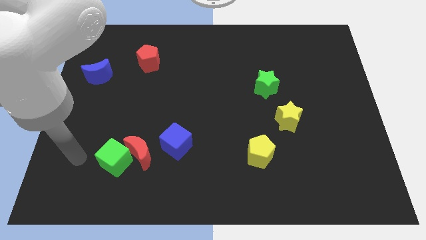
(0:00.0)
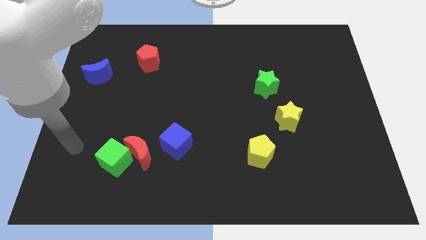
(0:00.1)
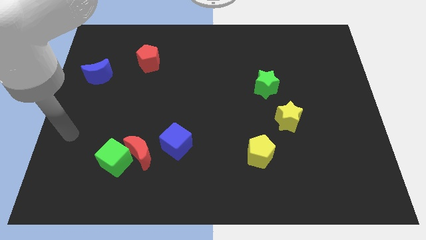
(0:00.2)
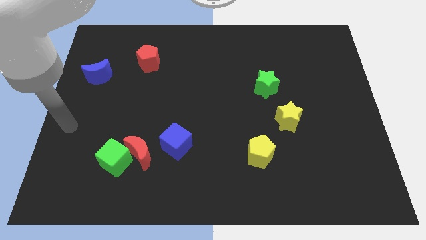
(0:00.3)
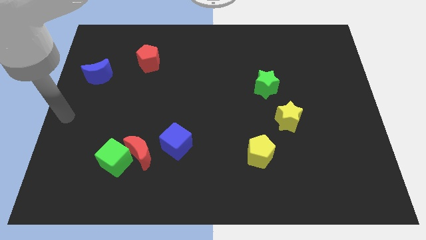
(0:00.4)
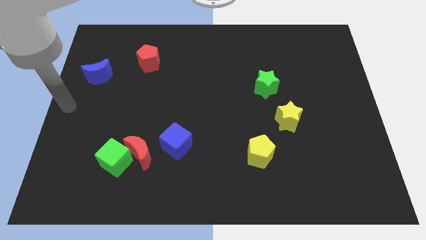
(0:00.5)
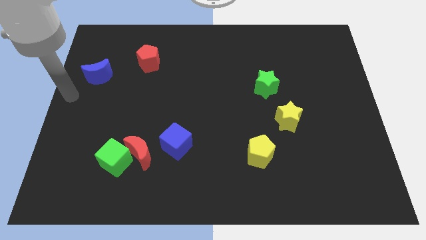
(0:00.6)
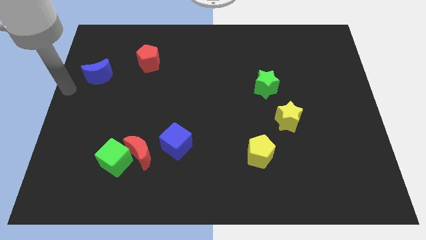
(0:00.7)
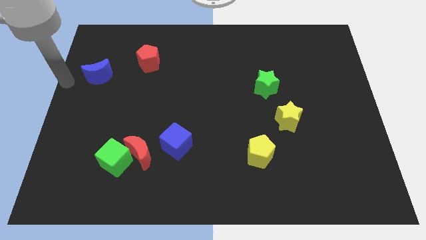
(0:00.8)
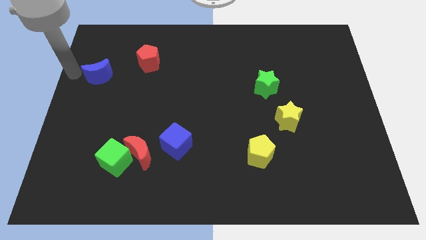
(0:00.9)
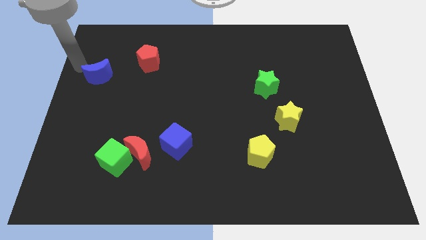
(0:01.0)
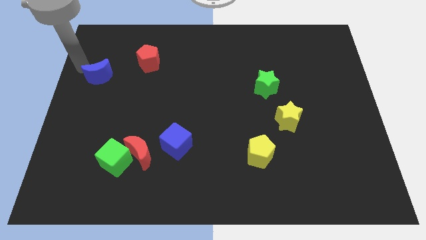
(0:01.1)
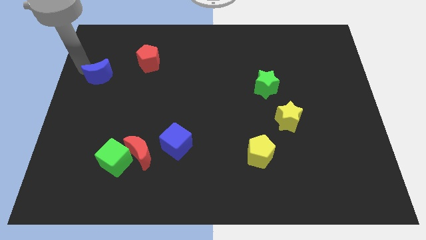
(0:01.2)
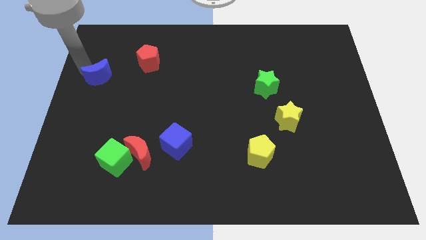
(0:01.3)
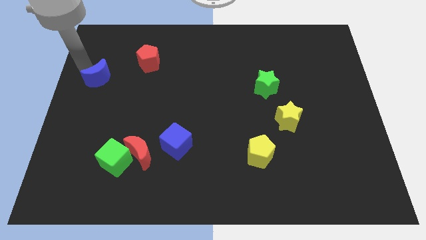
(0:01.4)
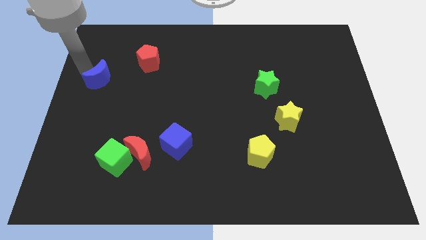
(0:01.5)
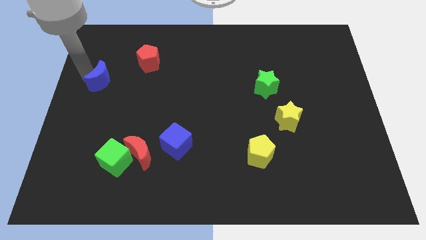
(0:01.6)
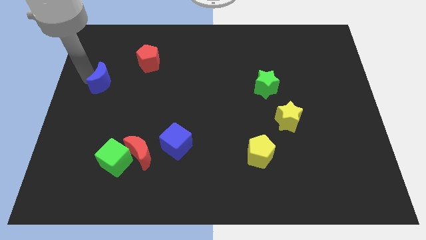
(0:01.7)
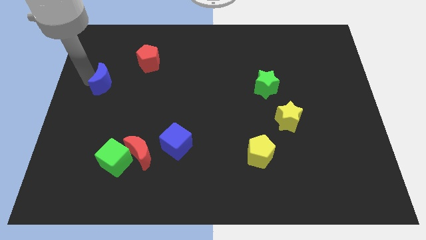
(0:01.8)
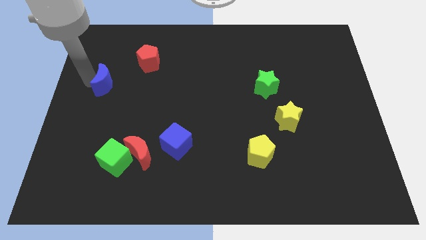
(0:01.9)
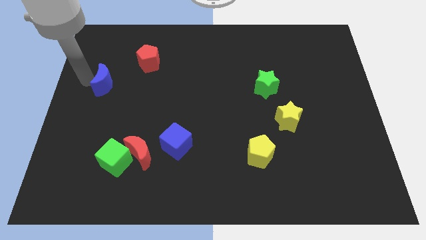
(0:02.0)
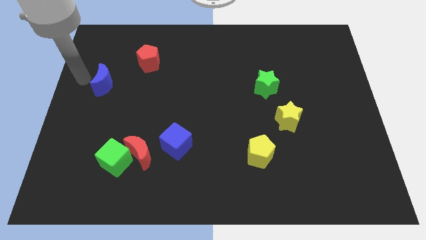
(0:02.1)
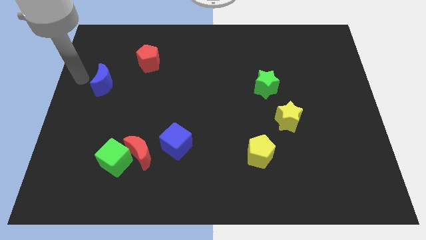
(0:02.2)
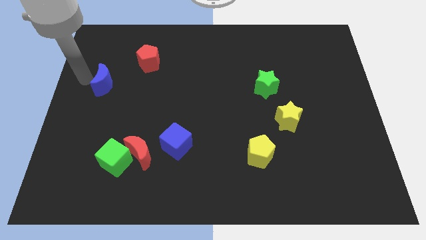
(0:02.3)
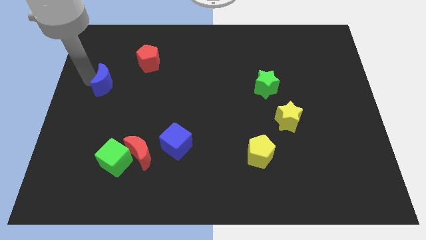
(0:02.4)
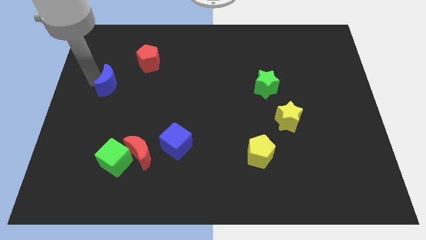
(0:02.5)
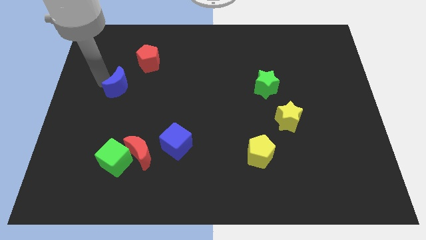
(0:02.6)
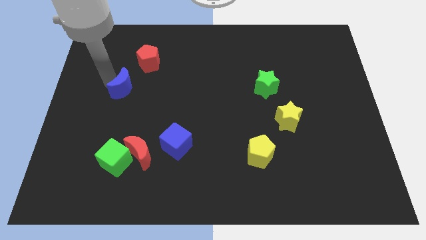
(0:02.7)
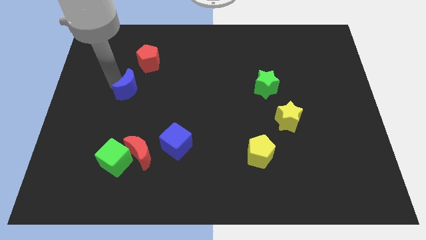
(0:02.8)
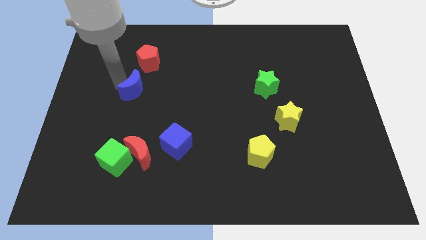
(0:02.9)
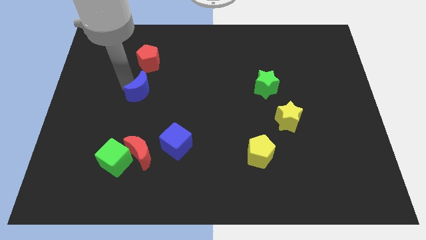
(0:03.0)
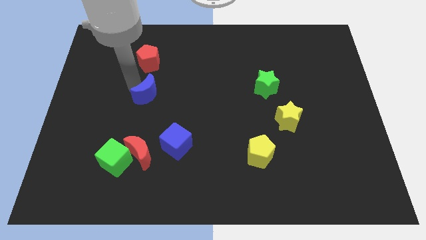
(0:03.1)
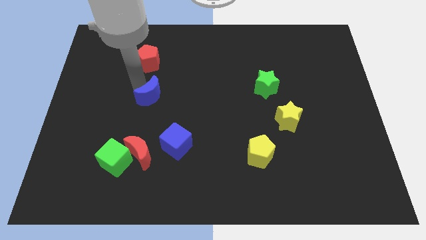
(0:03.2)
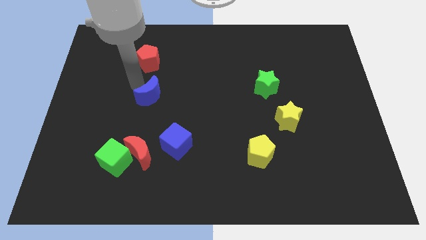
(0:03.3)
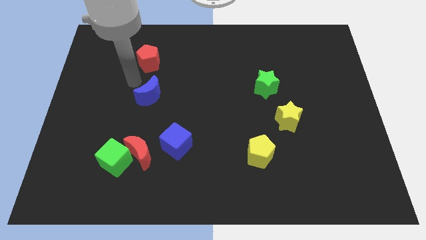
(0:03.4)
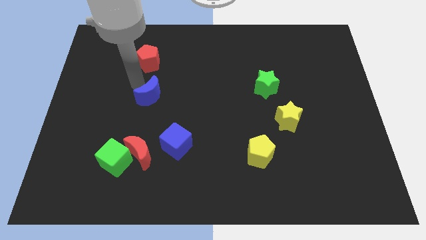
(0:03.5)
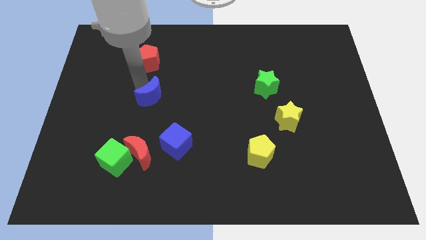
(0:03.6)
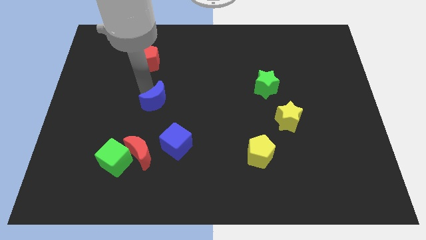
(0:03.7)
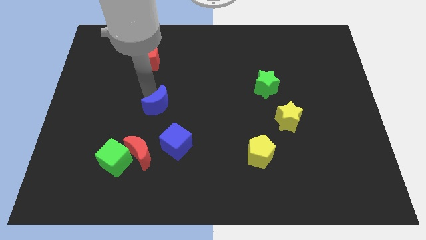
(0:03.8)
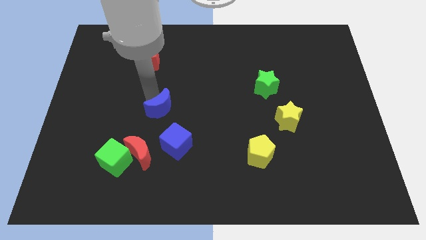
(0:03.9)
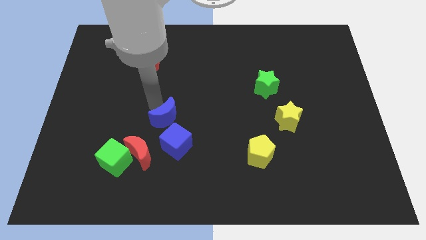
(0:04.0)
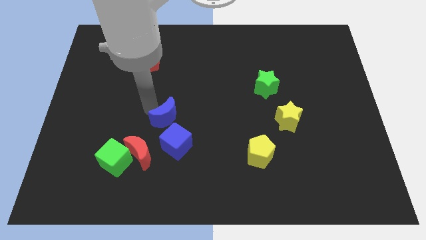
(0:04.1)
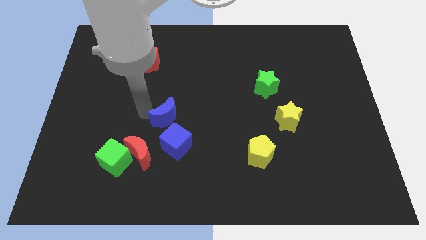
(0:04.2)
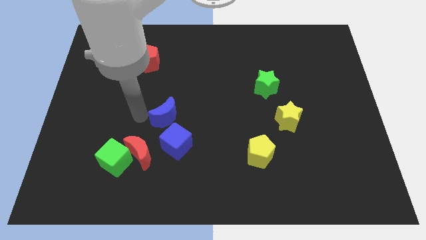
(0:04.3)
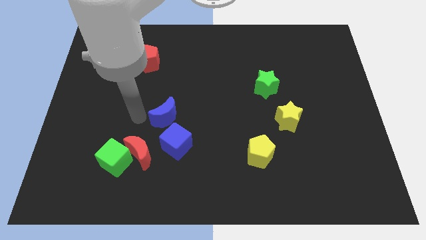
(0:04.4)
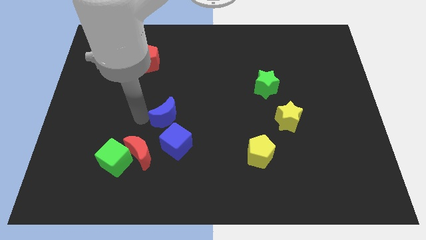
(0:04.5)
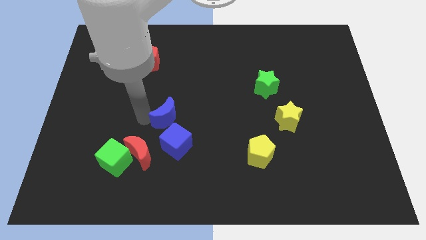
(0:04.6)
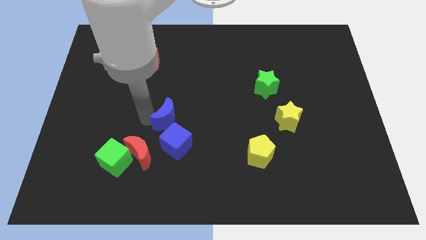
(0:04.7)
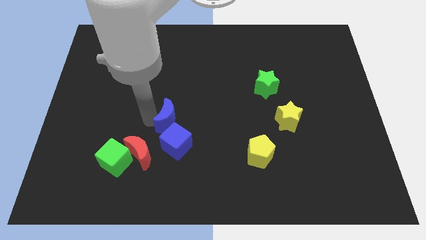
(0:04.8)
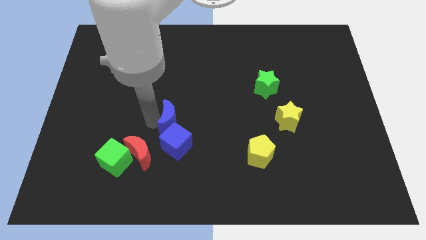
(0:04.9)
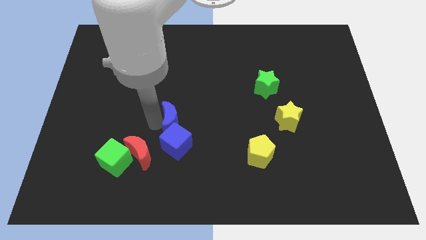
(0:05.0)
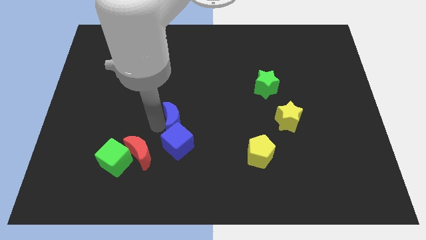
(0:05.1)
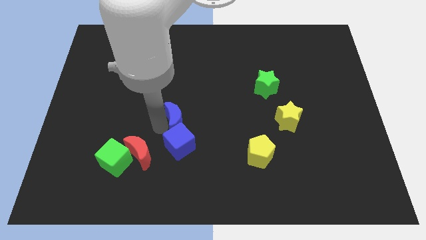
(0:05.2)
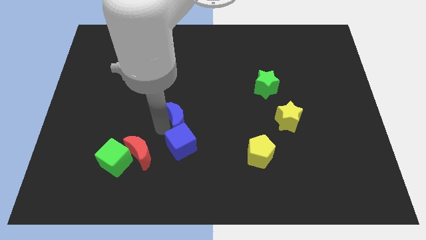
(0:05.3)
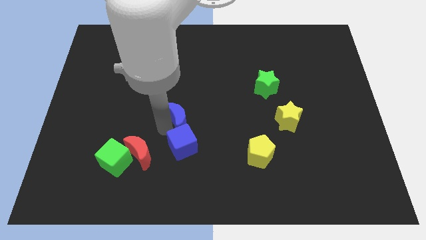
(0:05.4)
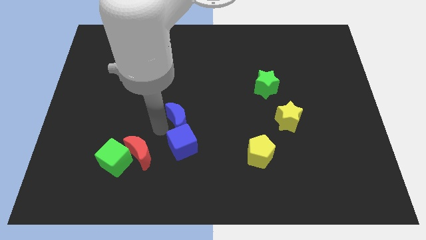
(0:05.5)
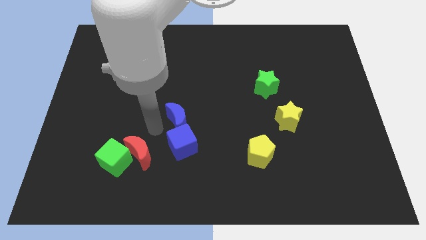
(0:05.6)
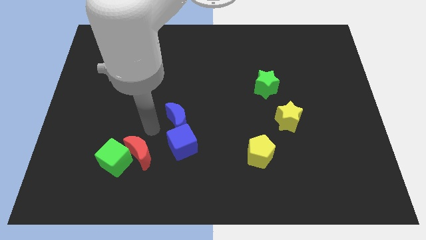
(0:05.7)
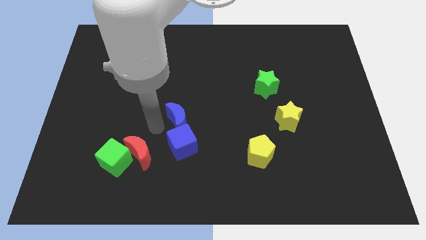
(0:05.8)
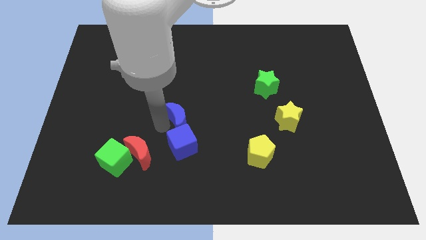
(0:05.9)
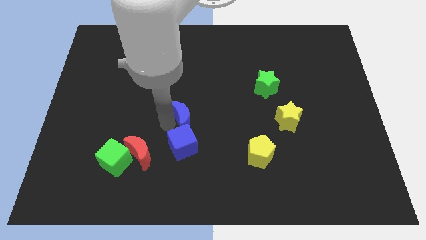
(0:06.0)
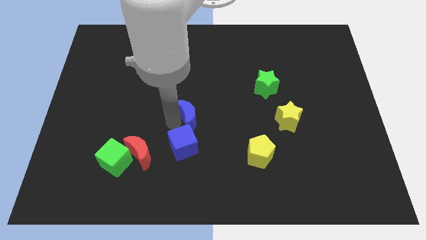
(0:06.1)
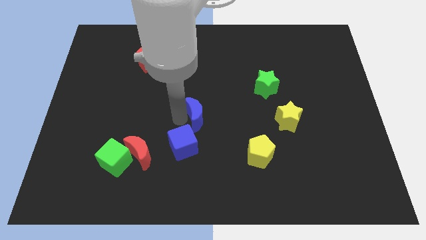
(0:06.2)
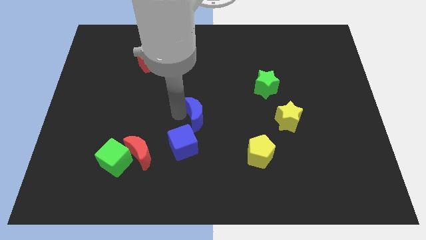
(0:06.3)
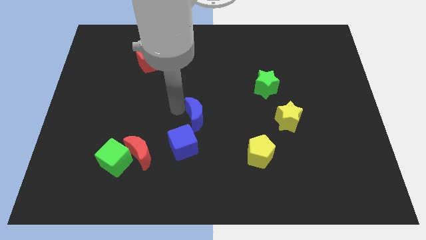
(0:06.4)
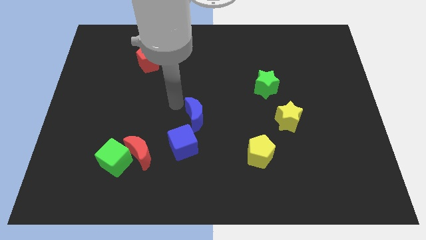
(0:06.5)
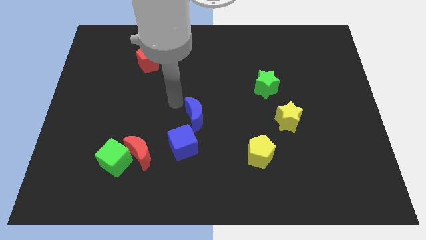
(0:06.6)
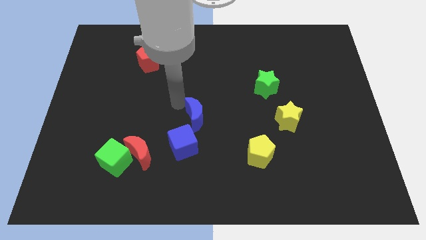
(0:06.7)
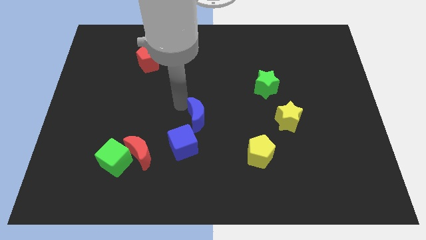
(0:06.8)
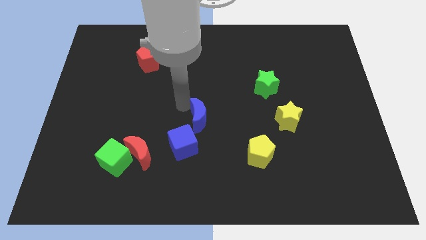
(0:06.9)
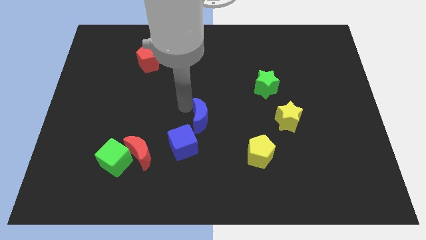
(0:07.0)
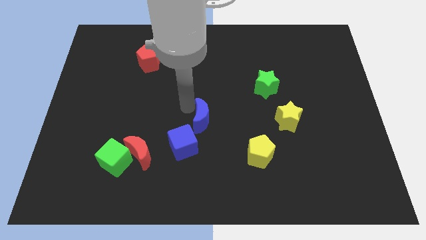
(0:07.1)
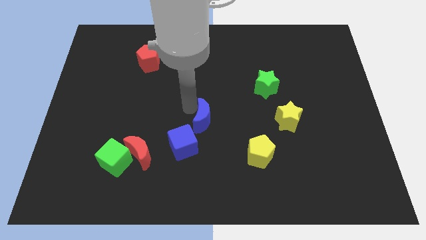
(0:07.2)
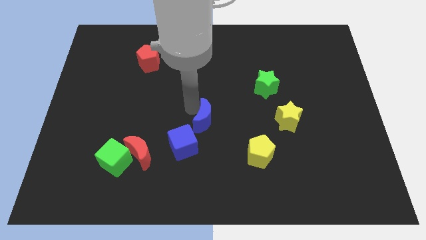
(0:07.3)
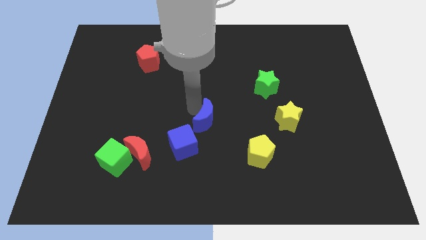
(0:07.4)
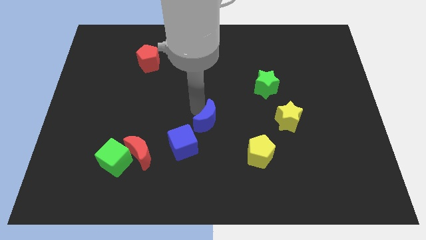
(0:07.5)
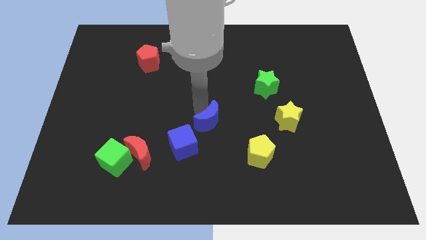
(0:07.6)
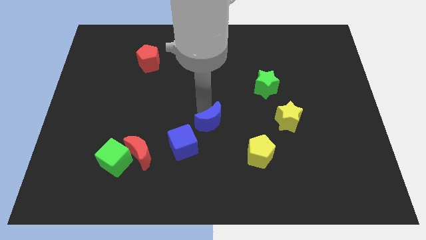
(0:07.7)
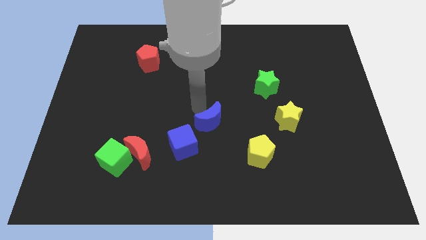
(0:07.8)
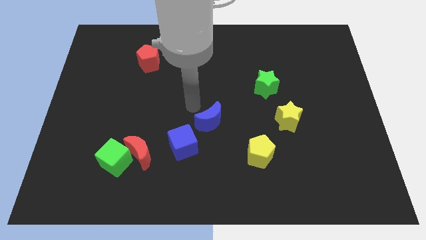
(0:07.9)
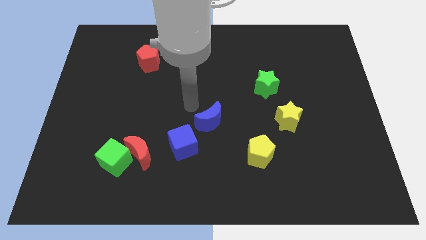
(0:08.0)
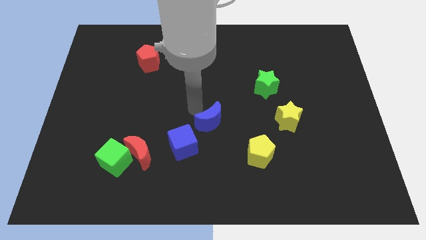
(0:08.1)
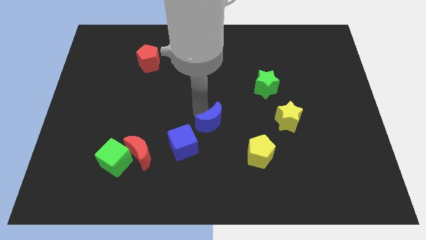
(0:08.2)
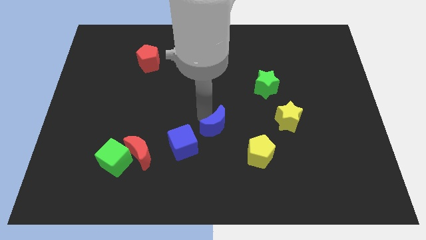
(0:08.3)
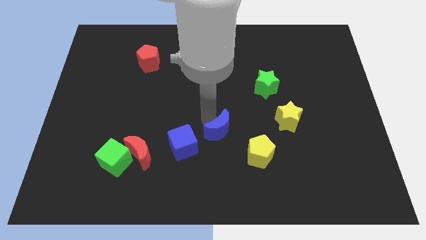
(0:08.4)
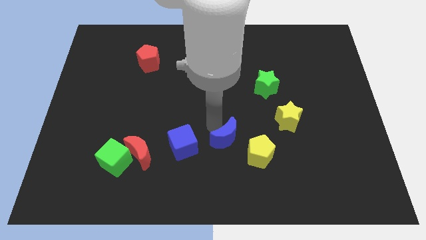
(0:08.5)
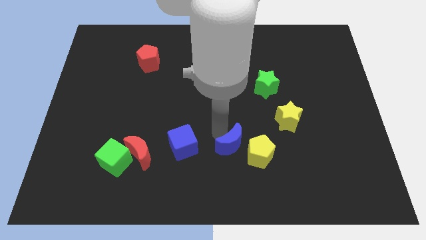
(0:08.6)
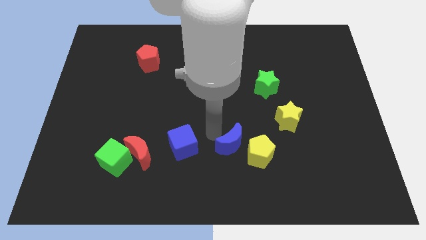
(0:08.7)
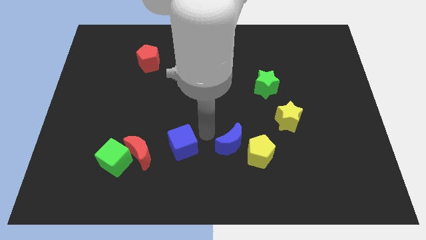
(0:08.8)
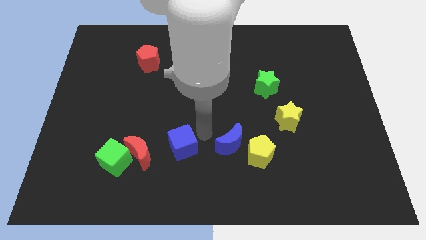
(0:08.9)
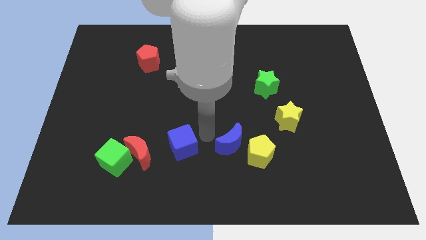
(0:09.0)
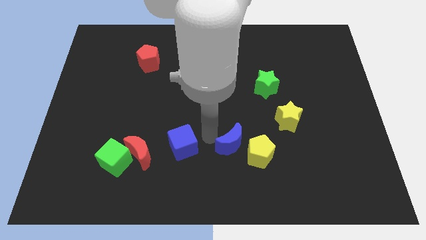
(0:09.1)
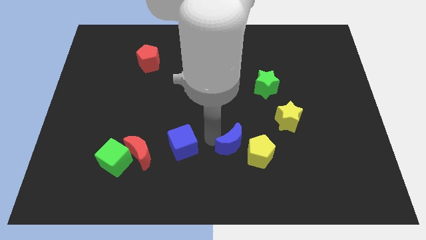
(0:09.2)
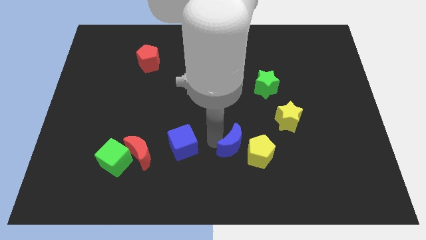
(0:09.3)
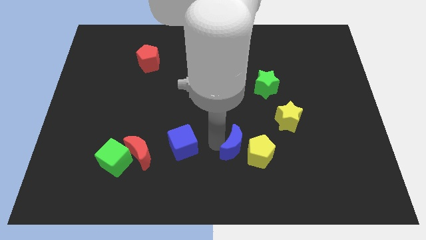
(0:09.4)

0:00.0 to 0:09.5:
slide the blue moon to the yellow pentagon
